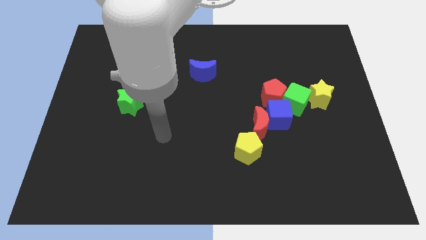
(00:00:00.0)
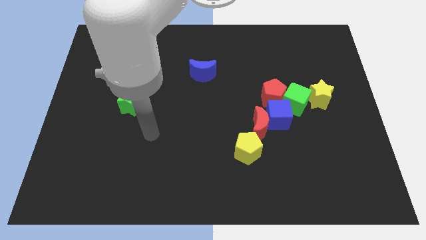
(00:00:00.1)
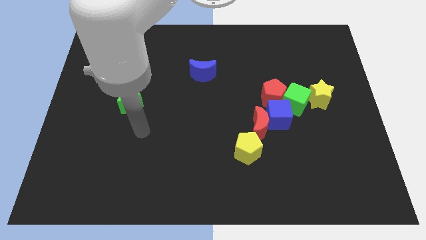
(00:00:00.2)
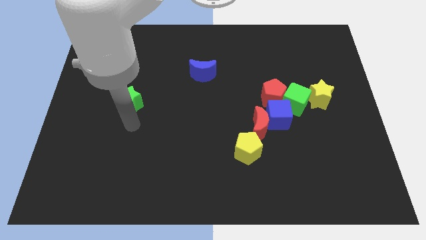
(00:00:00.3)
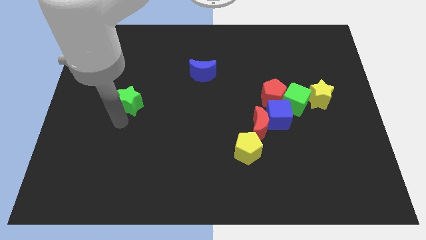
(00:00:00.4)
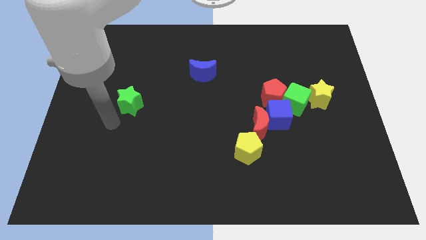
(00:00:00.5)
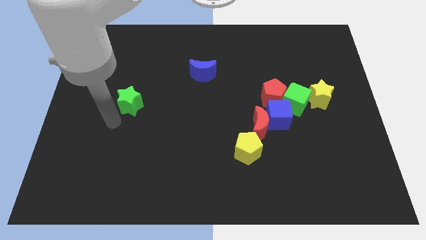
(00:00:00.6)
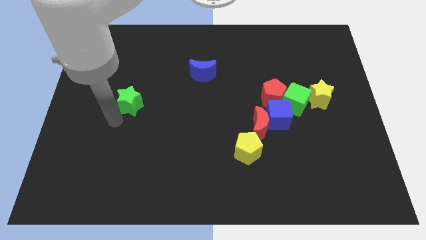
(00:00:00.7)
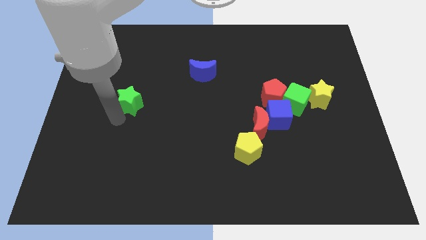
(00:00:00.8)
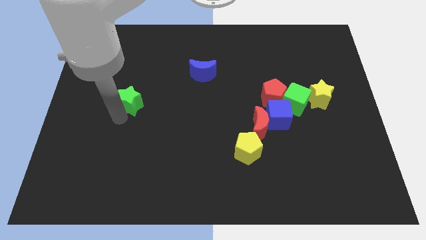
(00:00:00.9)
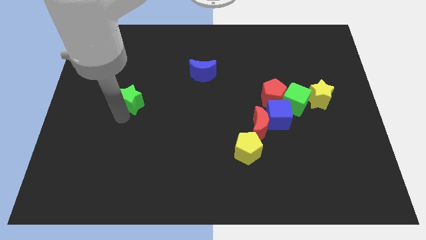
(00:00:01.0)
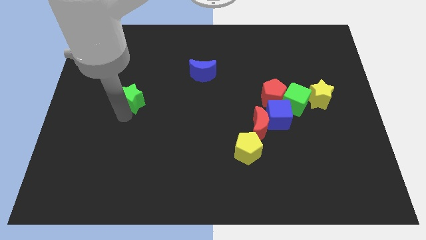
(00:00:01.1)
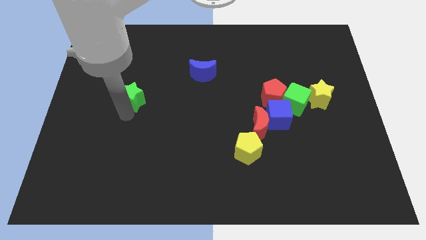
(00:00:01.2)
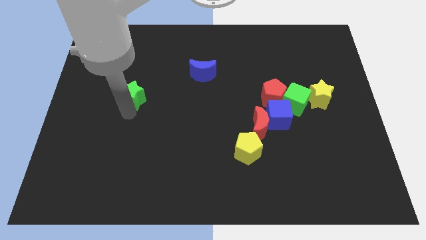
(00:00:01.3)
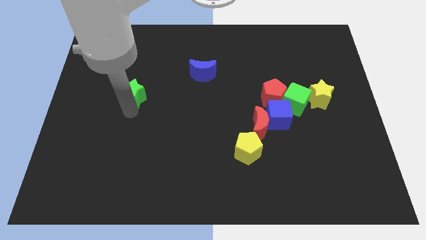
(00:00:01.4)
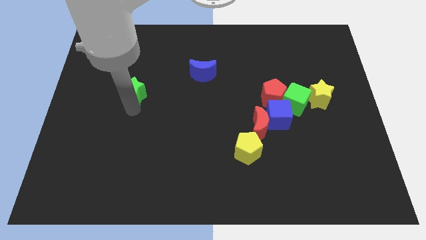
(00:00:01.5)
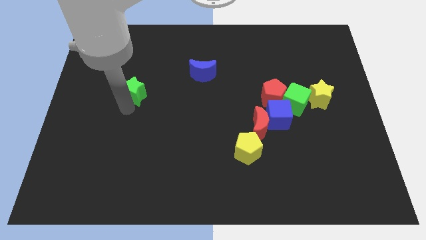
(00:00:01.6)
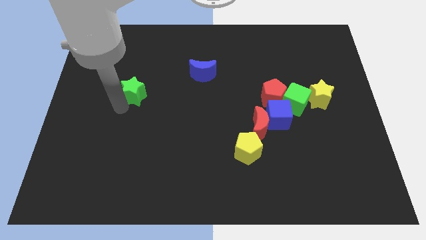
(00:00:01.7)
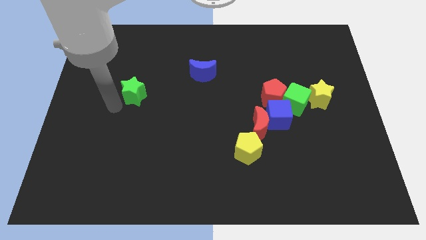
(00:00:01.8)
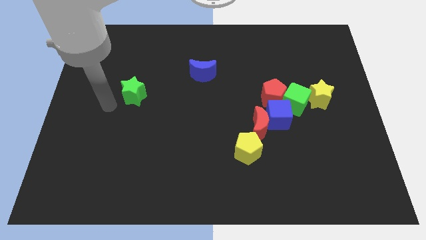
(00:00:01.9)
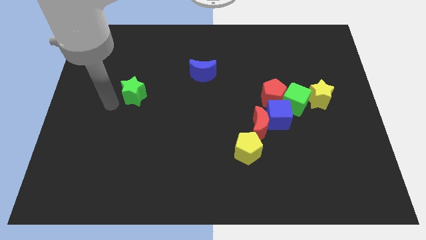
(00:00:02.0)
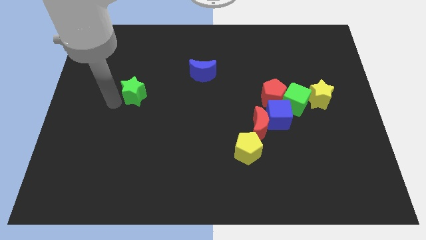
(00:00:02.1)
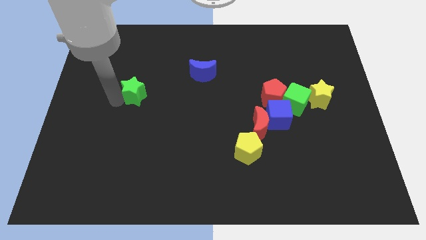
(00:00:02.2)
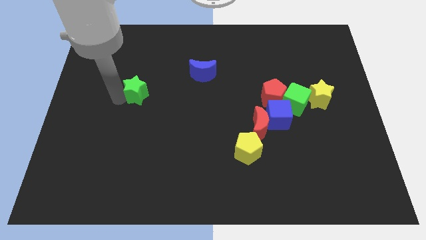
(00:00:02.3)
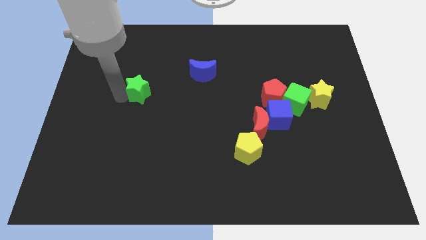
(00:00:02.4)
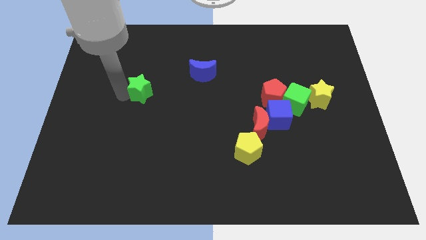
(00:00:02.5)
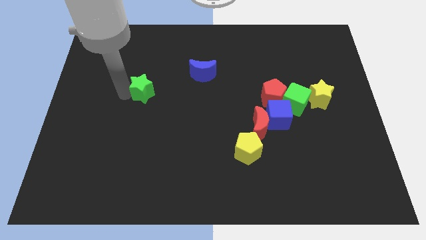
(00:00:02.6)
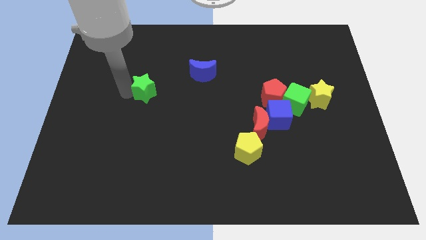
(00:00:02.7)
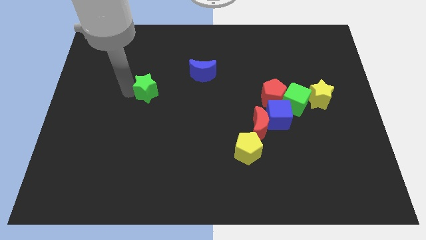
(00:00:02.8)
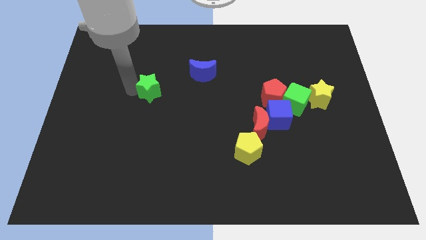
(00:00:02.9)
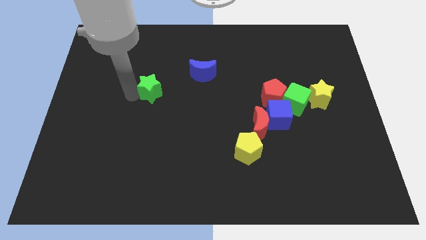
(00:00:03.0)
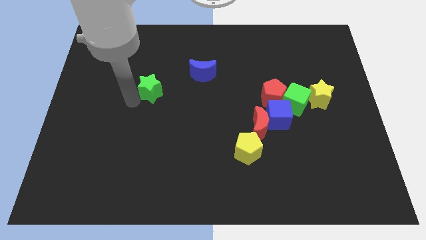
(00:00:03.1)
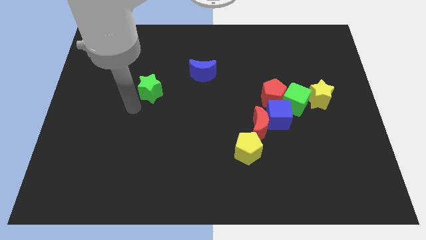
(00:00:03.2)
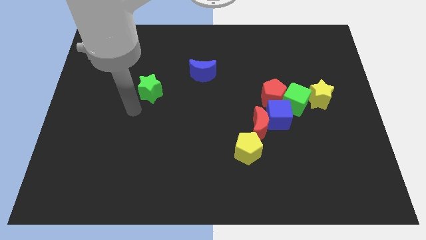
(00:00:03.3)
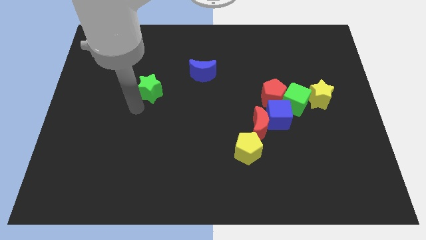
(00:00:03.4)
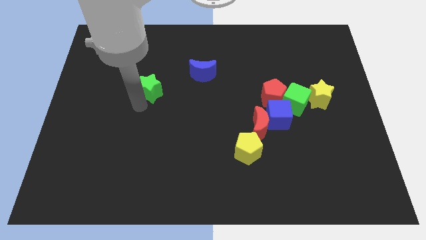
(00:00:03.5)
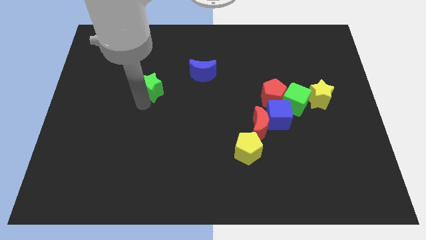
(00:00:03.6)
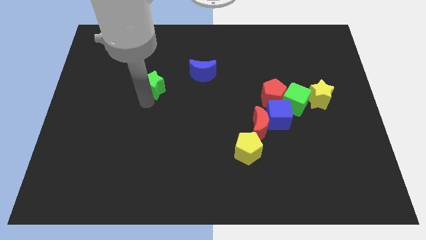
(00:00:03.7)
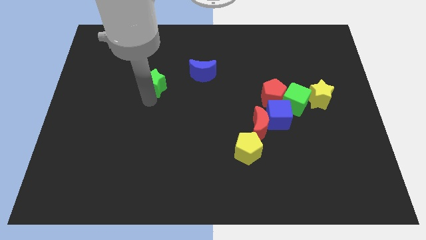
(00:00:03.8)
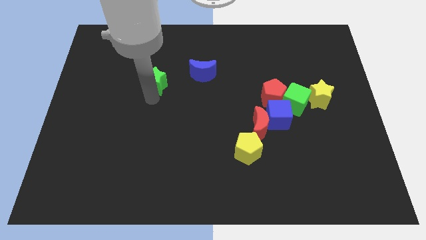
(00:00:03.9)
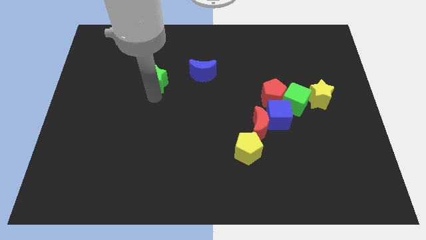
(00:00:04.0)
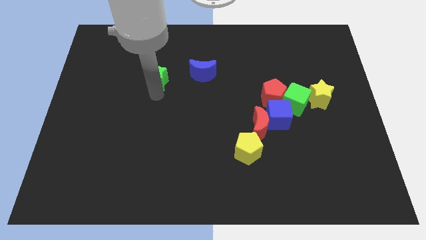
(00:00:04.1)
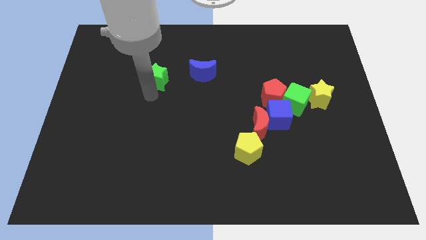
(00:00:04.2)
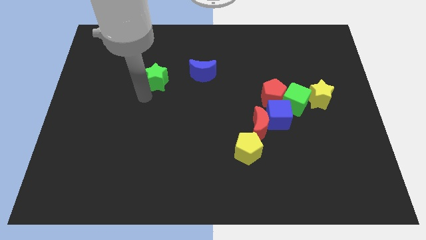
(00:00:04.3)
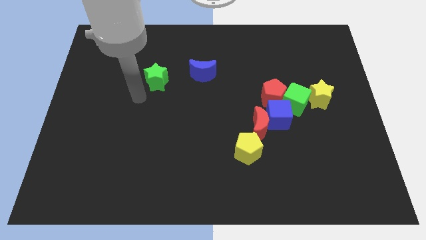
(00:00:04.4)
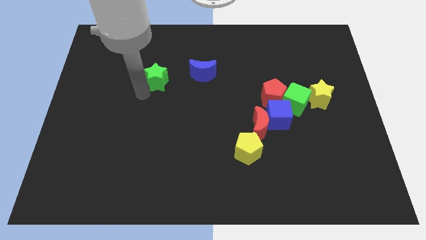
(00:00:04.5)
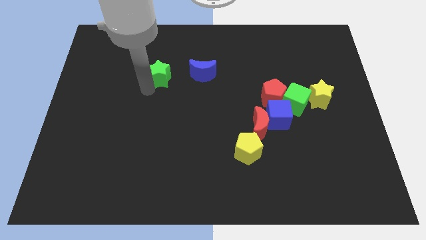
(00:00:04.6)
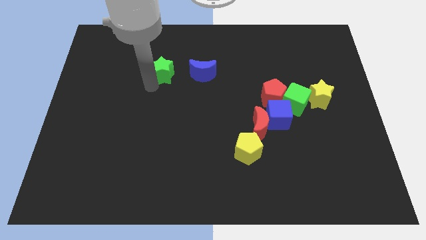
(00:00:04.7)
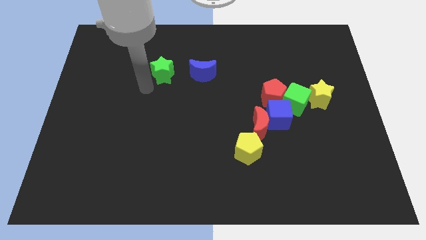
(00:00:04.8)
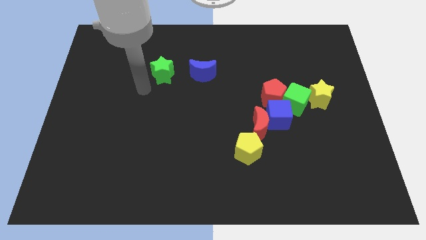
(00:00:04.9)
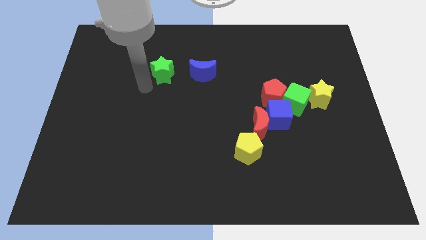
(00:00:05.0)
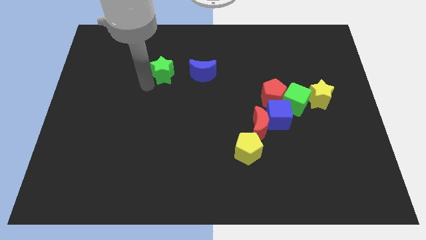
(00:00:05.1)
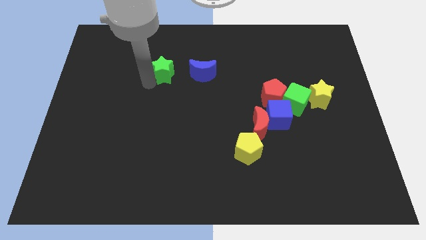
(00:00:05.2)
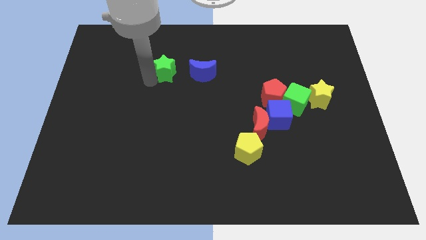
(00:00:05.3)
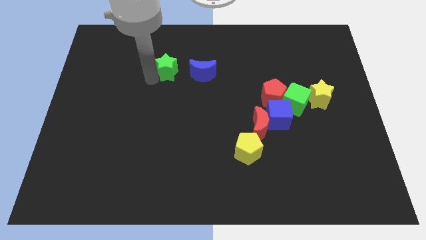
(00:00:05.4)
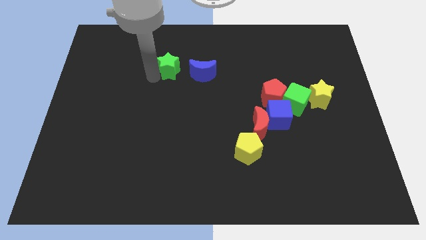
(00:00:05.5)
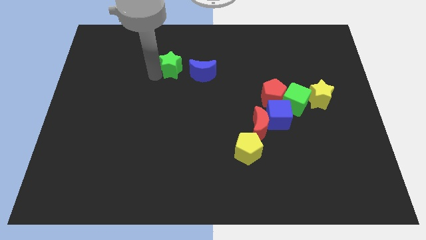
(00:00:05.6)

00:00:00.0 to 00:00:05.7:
put the green star diagonally up and to the left of the blue moon

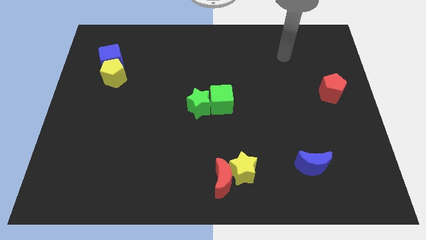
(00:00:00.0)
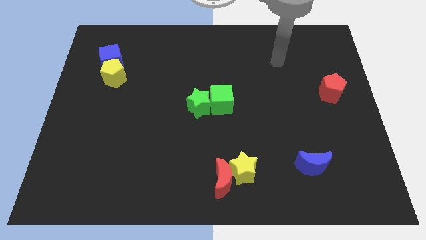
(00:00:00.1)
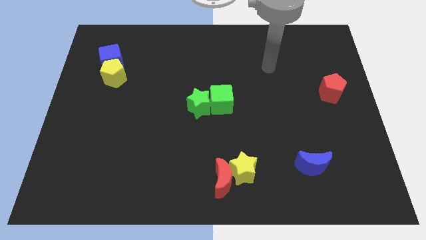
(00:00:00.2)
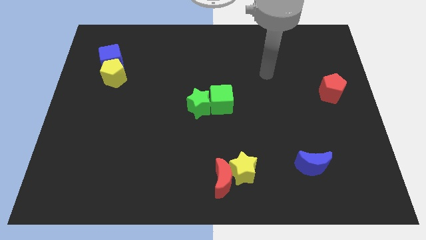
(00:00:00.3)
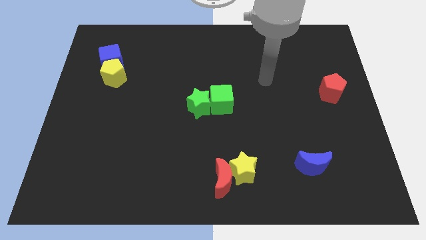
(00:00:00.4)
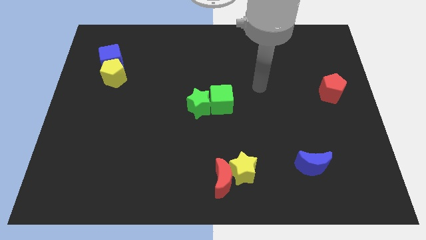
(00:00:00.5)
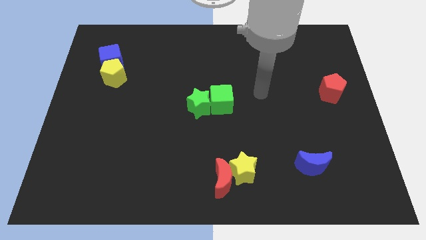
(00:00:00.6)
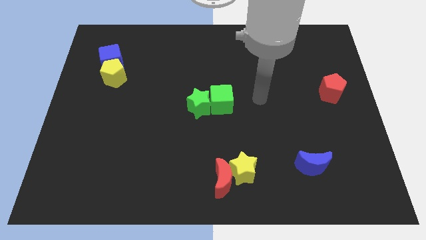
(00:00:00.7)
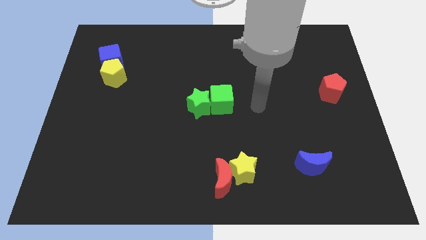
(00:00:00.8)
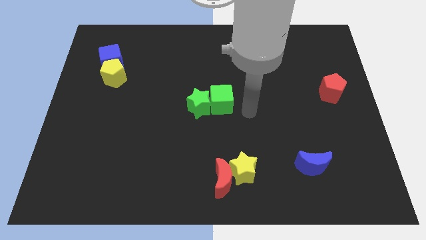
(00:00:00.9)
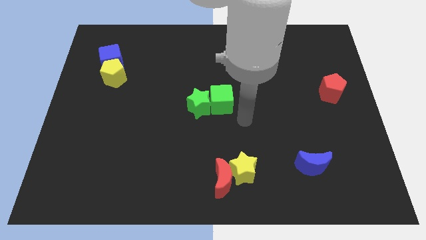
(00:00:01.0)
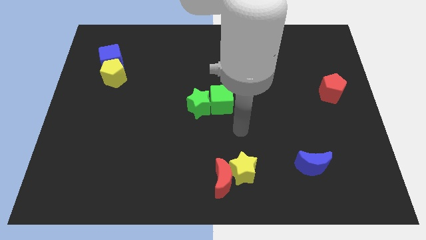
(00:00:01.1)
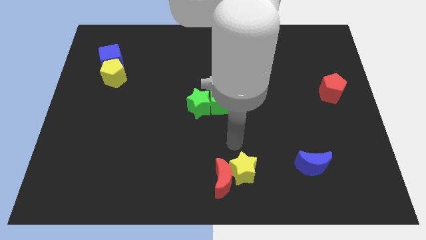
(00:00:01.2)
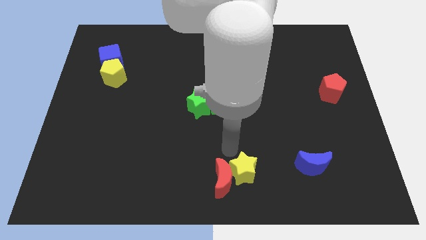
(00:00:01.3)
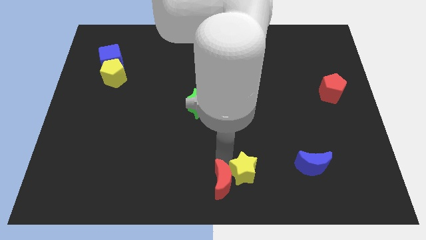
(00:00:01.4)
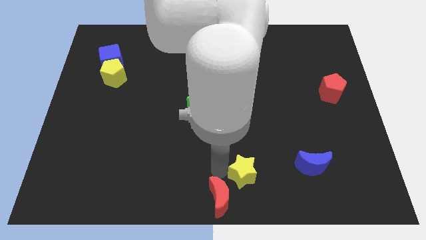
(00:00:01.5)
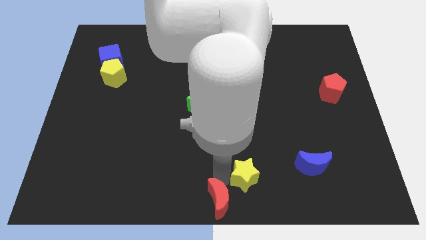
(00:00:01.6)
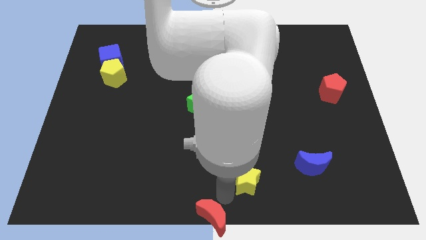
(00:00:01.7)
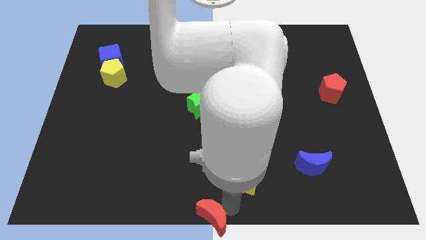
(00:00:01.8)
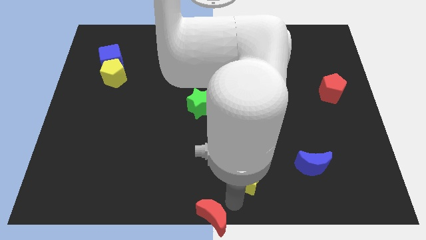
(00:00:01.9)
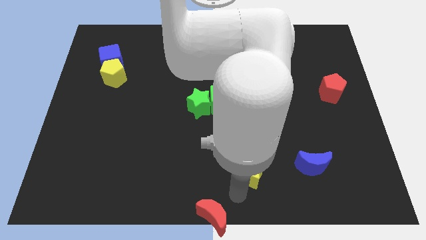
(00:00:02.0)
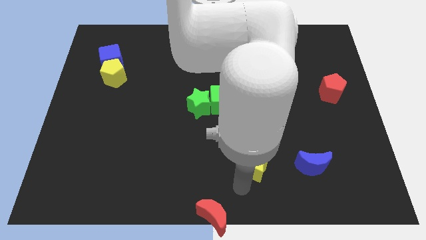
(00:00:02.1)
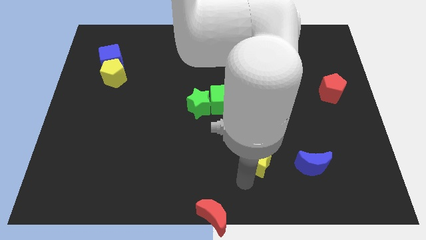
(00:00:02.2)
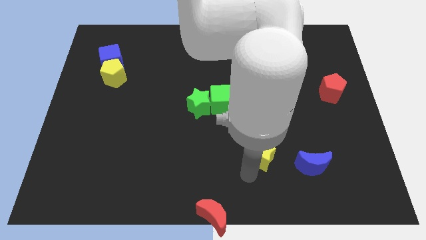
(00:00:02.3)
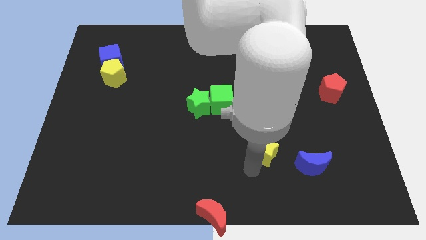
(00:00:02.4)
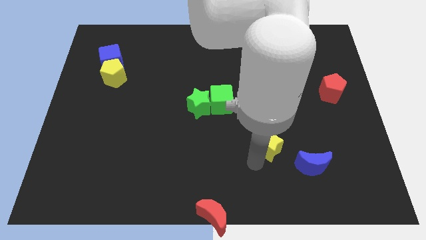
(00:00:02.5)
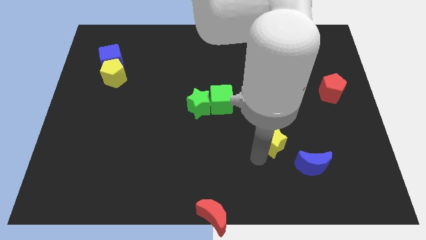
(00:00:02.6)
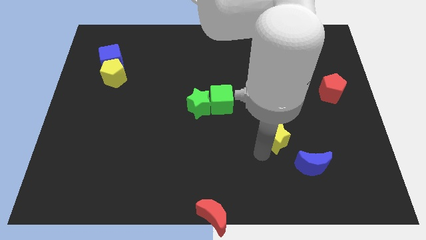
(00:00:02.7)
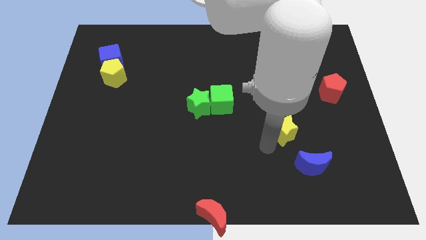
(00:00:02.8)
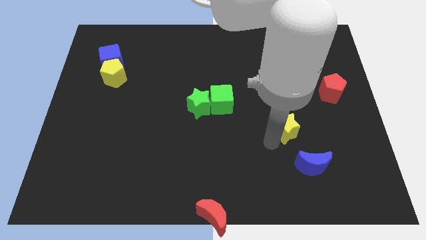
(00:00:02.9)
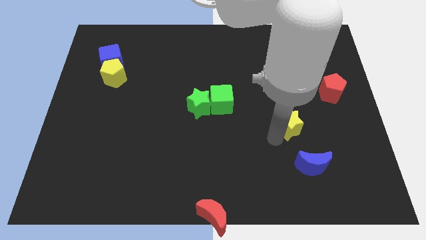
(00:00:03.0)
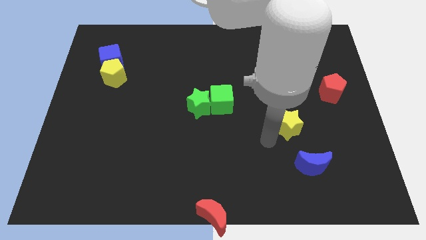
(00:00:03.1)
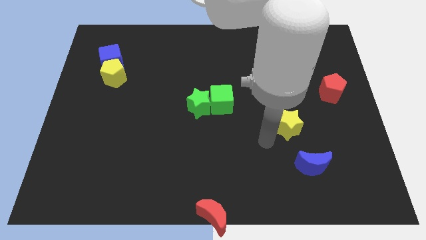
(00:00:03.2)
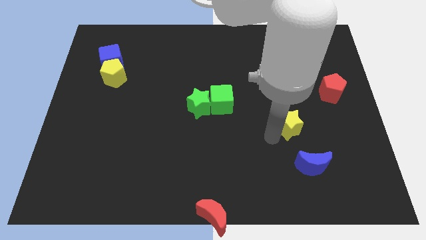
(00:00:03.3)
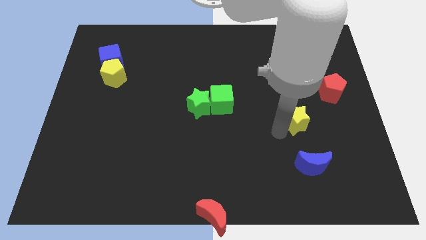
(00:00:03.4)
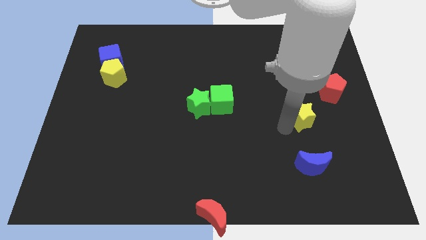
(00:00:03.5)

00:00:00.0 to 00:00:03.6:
put the yellow star diagonally down and to the left of the red pentagon
